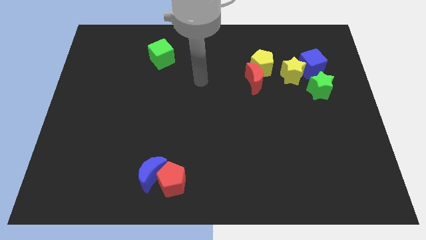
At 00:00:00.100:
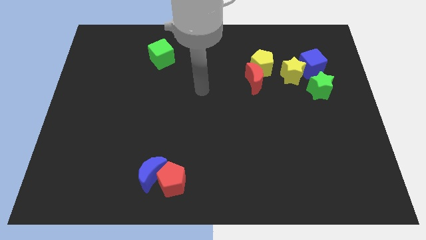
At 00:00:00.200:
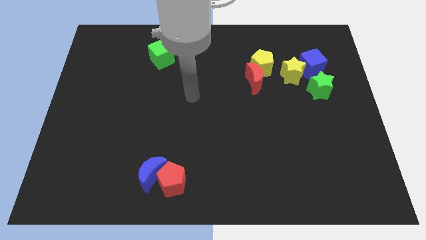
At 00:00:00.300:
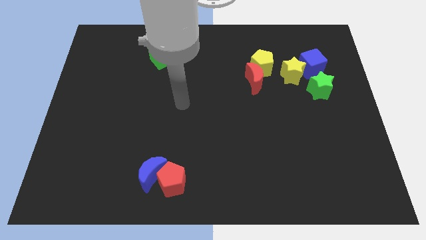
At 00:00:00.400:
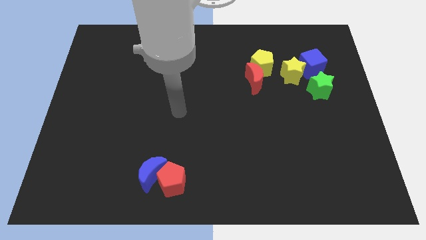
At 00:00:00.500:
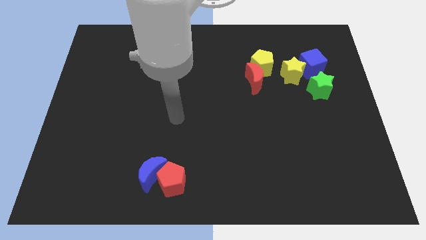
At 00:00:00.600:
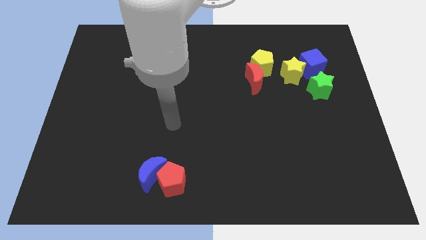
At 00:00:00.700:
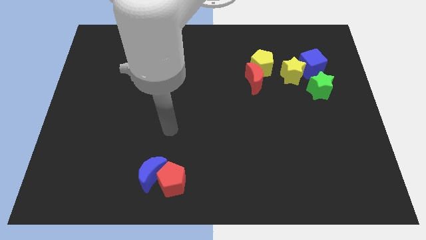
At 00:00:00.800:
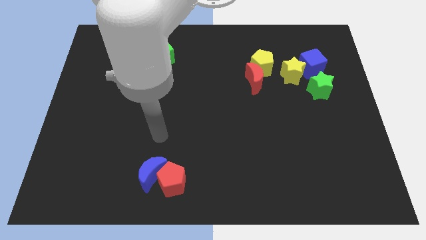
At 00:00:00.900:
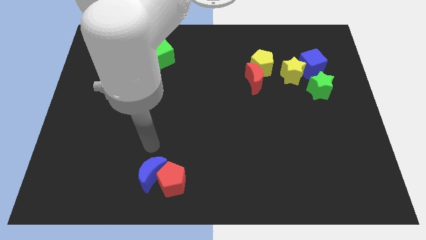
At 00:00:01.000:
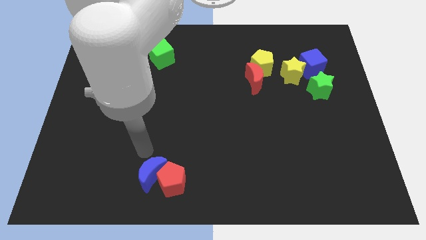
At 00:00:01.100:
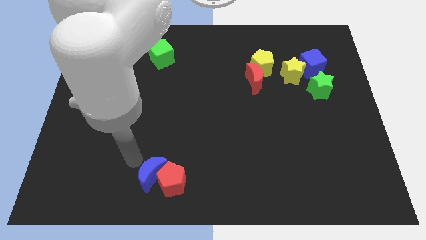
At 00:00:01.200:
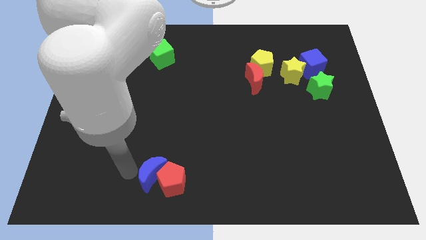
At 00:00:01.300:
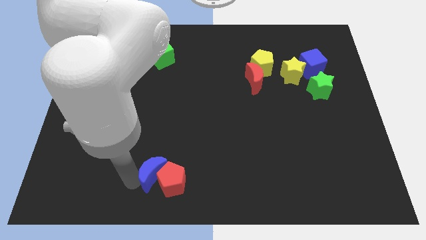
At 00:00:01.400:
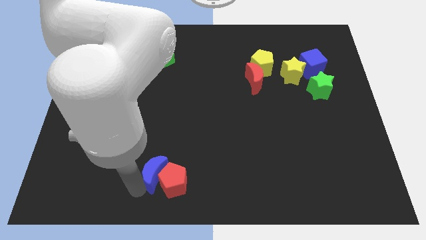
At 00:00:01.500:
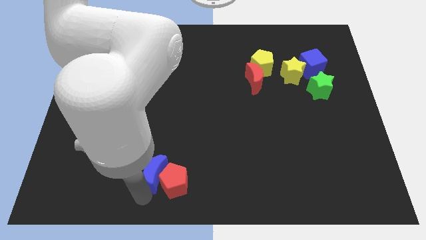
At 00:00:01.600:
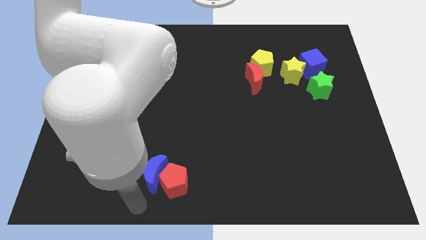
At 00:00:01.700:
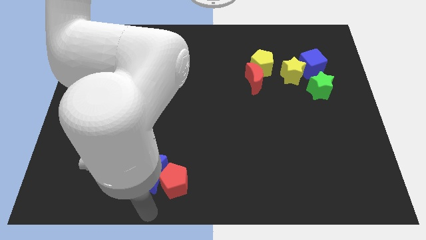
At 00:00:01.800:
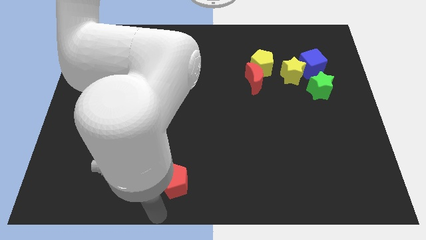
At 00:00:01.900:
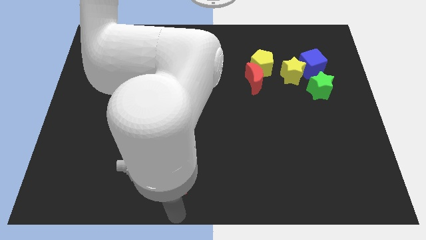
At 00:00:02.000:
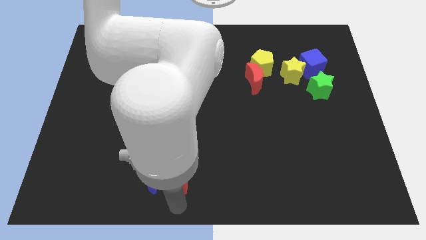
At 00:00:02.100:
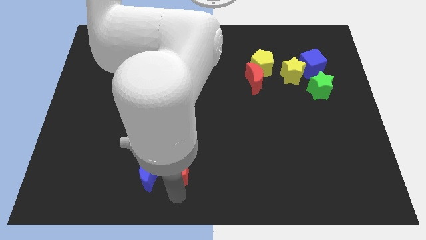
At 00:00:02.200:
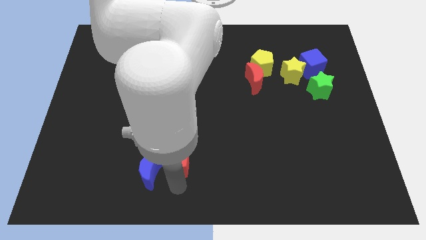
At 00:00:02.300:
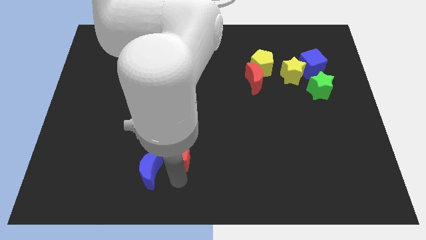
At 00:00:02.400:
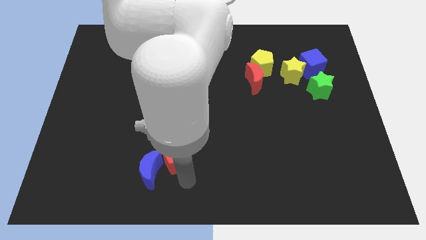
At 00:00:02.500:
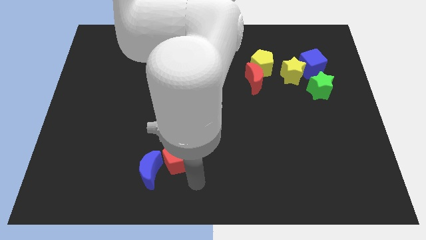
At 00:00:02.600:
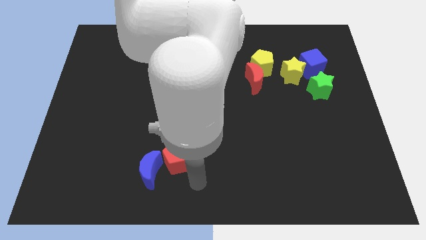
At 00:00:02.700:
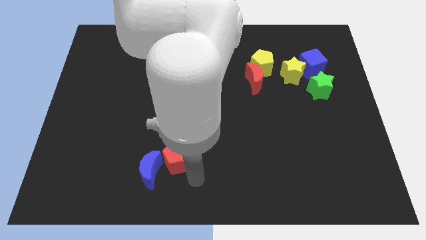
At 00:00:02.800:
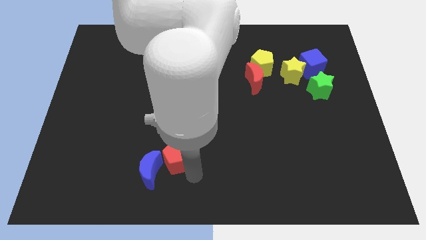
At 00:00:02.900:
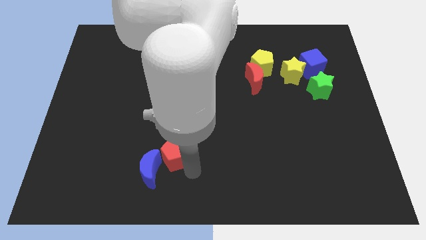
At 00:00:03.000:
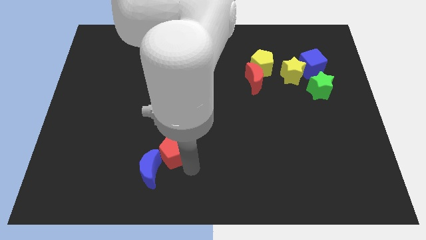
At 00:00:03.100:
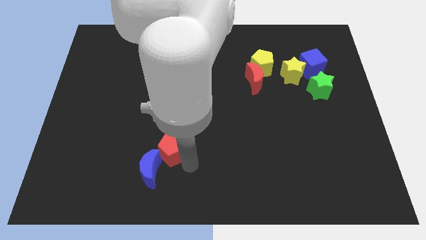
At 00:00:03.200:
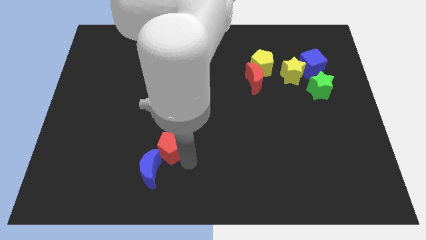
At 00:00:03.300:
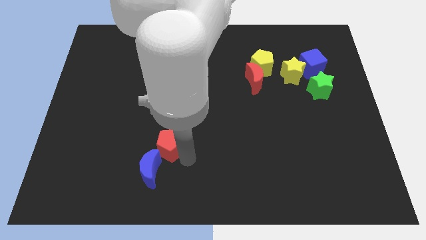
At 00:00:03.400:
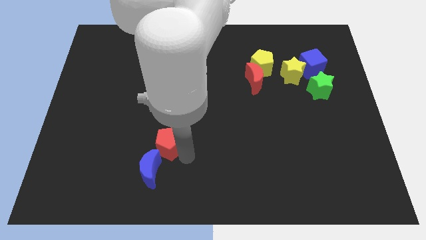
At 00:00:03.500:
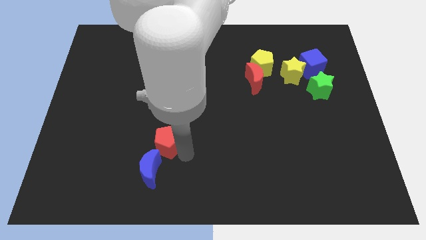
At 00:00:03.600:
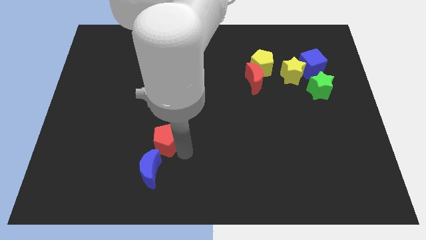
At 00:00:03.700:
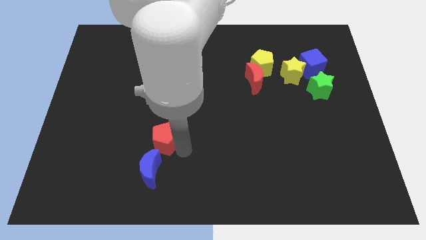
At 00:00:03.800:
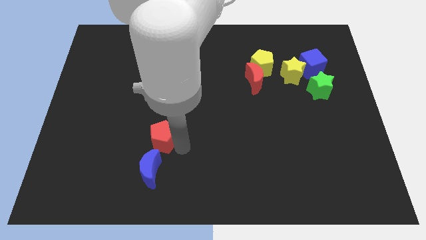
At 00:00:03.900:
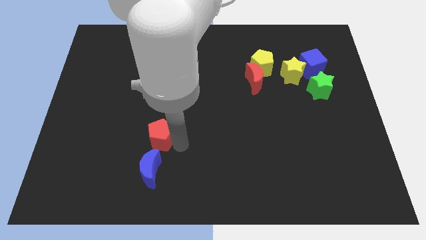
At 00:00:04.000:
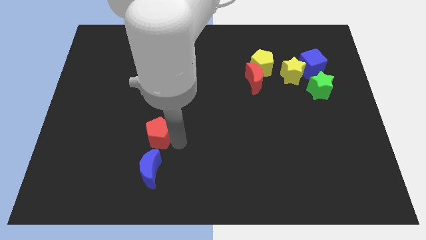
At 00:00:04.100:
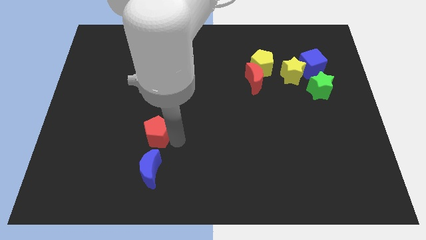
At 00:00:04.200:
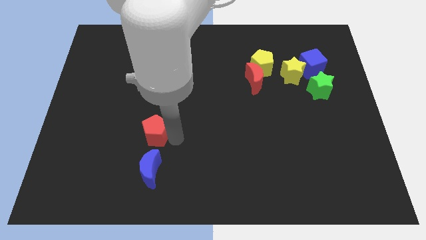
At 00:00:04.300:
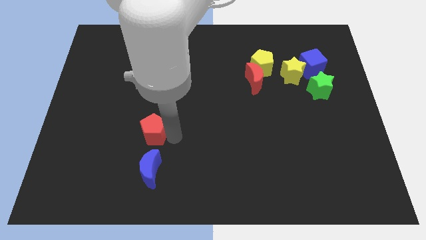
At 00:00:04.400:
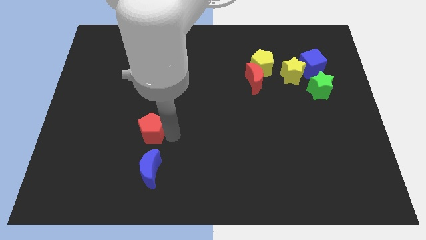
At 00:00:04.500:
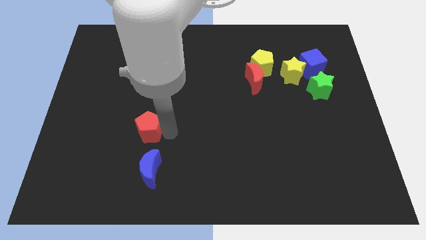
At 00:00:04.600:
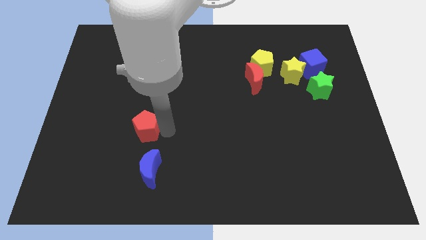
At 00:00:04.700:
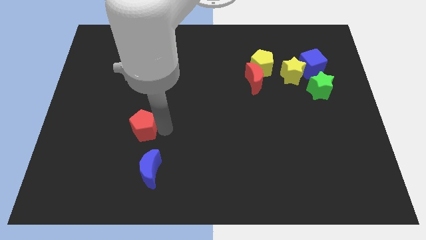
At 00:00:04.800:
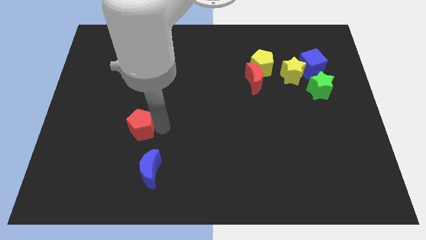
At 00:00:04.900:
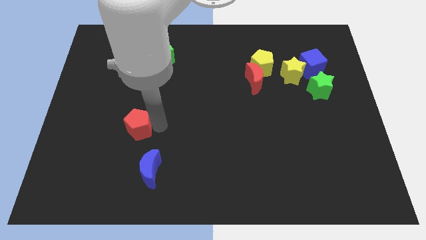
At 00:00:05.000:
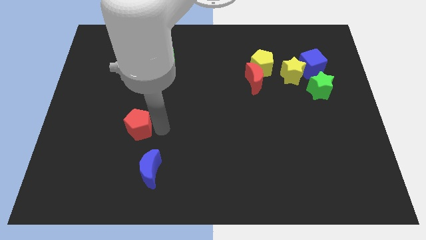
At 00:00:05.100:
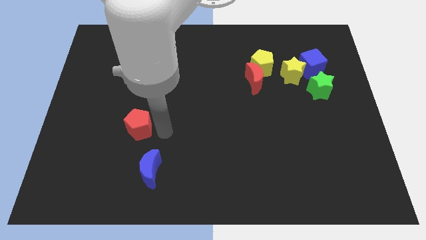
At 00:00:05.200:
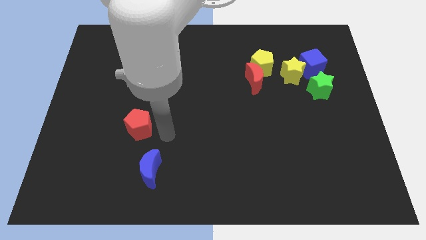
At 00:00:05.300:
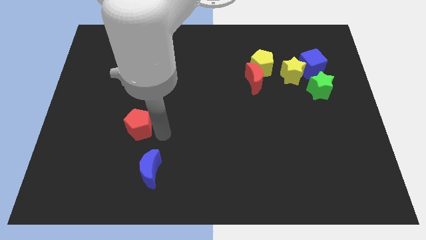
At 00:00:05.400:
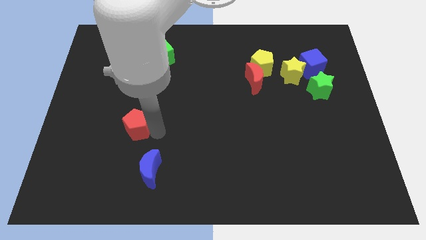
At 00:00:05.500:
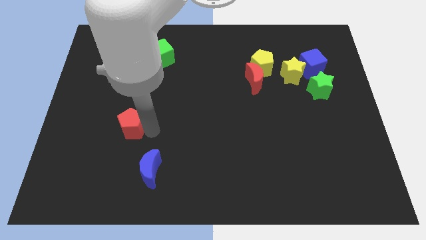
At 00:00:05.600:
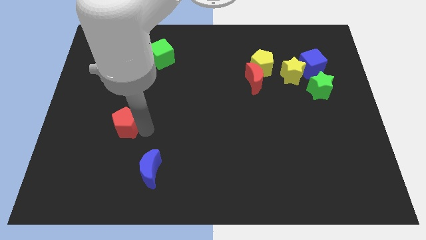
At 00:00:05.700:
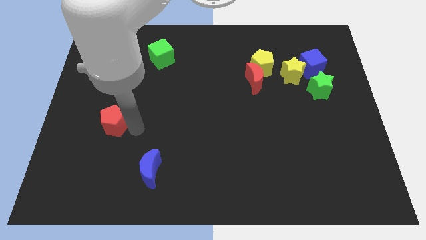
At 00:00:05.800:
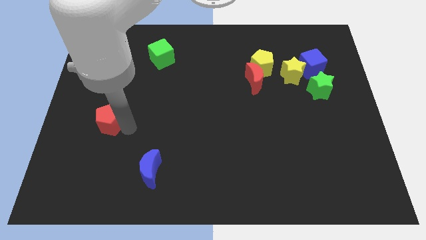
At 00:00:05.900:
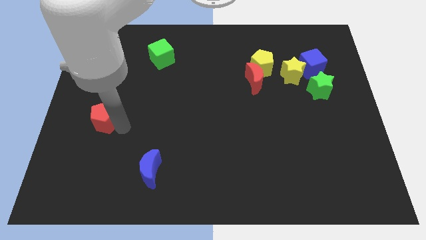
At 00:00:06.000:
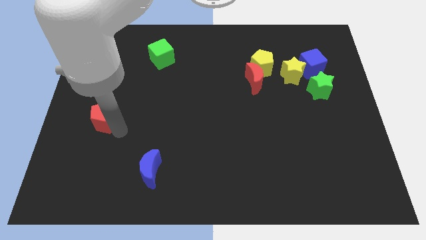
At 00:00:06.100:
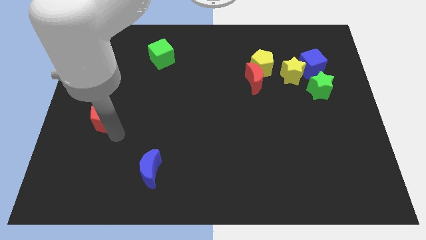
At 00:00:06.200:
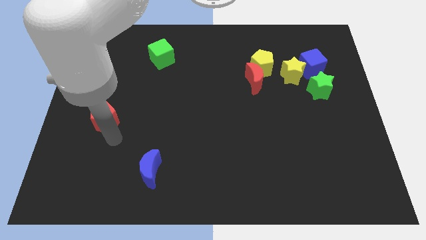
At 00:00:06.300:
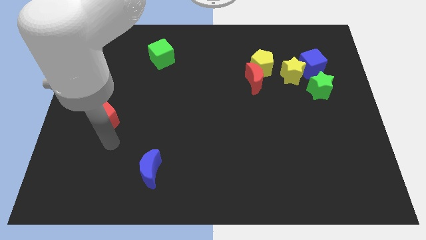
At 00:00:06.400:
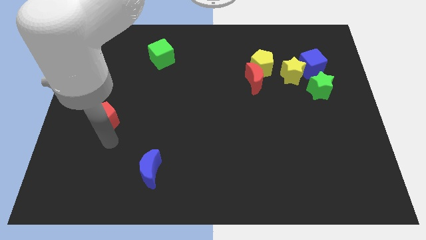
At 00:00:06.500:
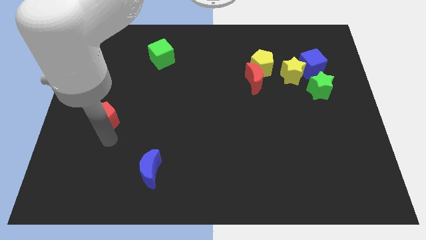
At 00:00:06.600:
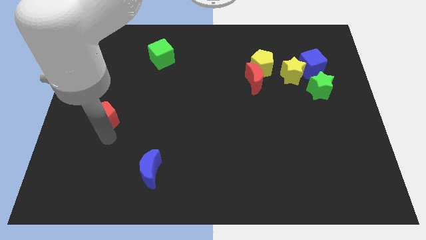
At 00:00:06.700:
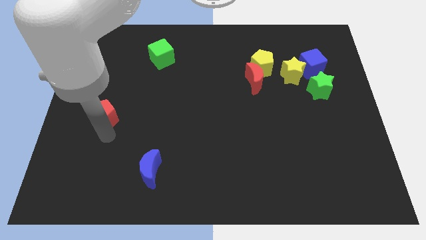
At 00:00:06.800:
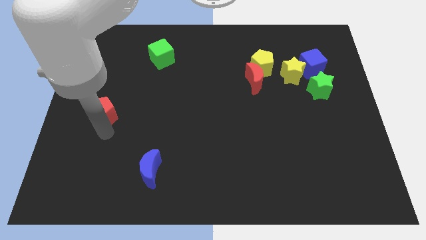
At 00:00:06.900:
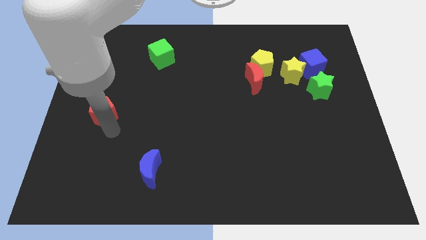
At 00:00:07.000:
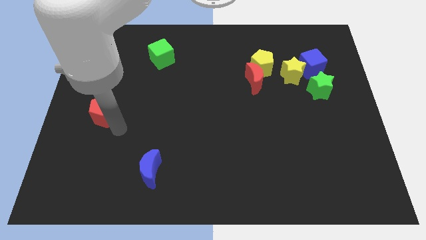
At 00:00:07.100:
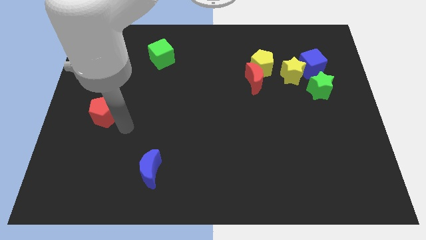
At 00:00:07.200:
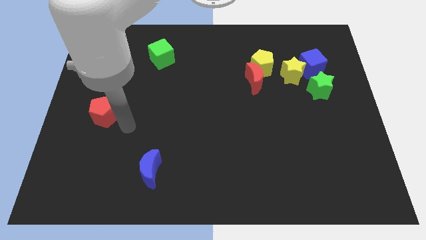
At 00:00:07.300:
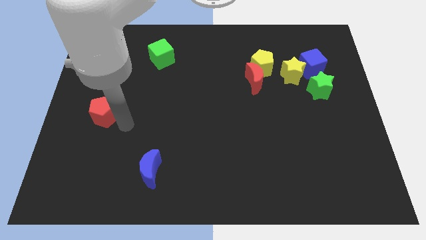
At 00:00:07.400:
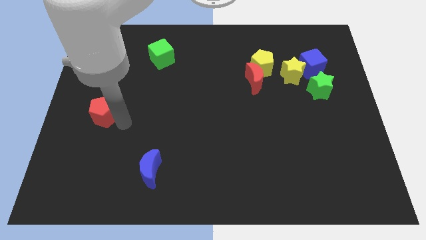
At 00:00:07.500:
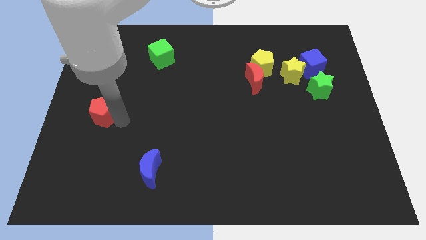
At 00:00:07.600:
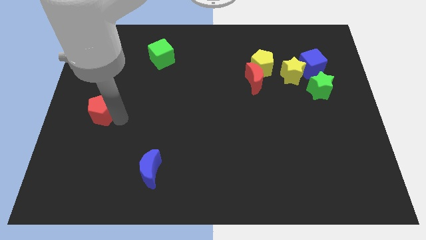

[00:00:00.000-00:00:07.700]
slide the red pentagon to the left side
